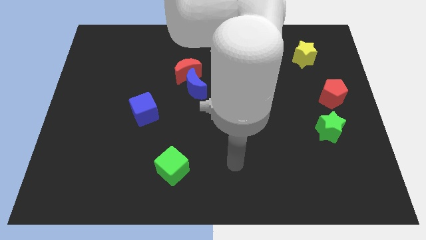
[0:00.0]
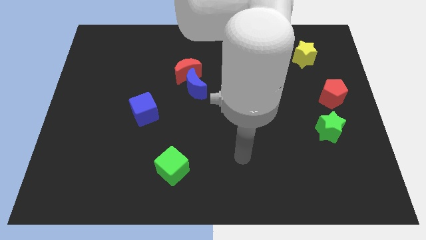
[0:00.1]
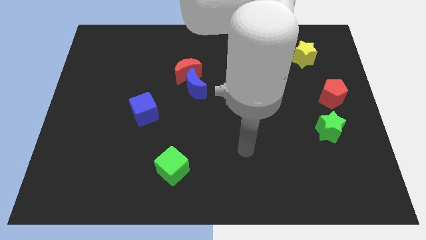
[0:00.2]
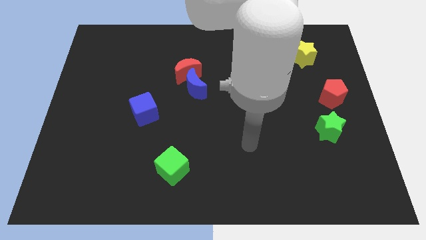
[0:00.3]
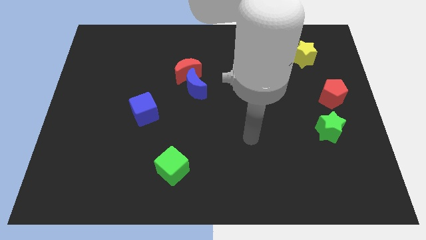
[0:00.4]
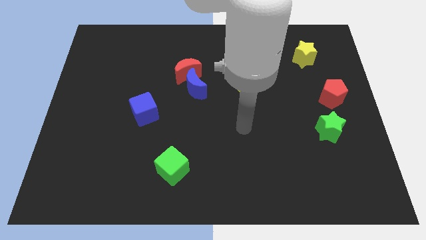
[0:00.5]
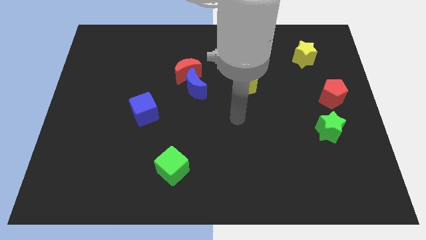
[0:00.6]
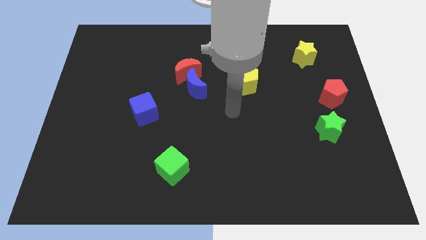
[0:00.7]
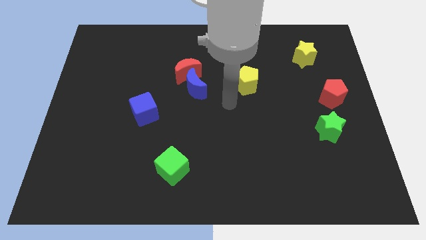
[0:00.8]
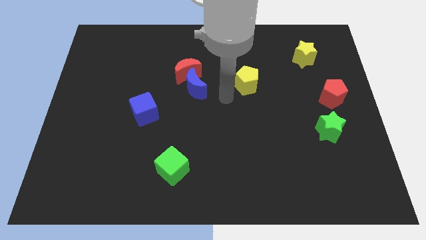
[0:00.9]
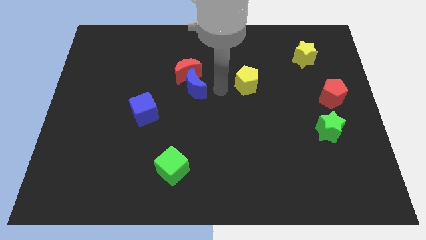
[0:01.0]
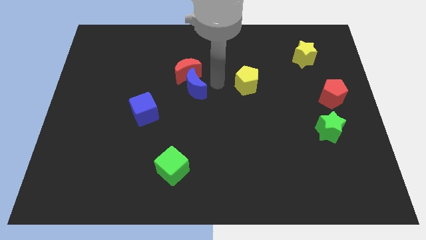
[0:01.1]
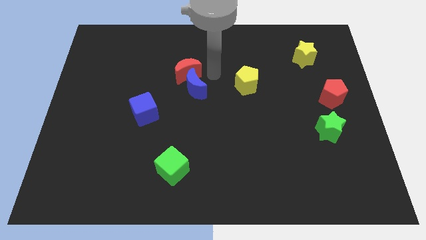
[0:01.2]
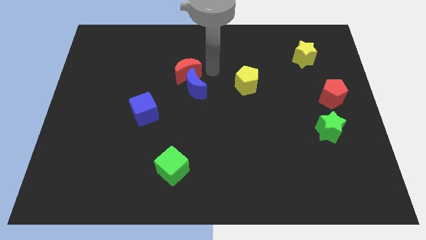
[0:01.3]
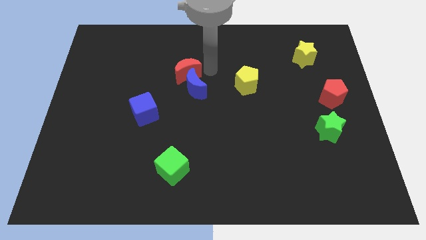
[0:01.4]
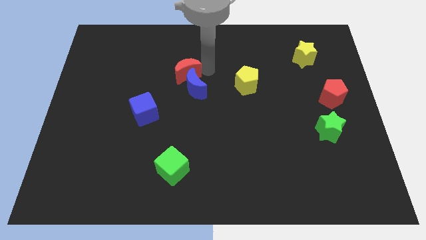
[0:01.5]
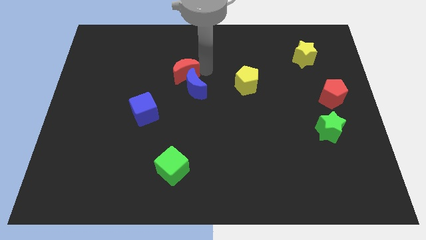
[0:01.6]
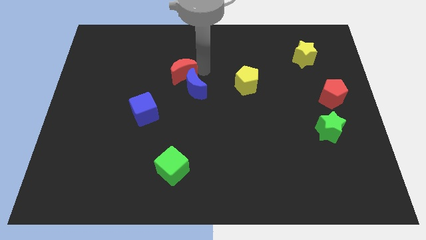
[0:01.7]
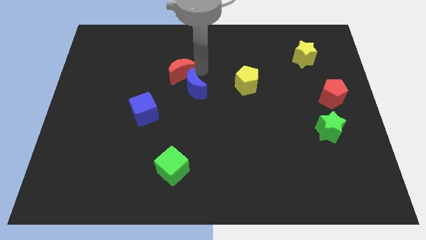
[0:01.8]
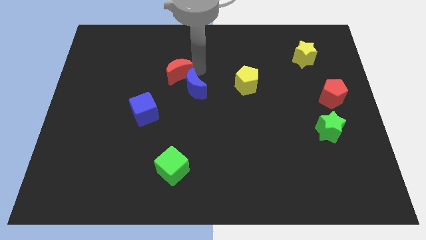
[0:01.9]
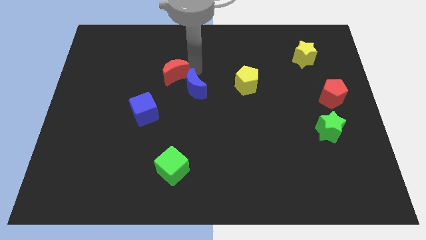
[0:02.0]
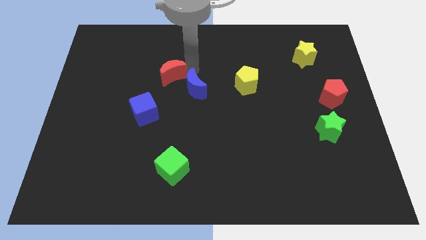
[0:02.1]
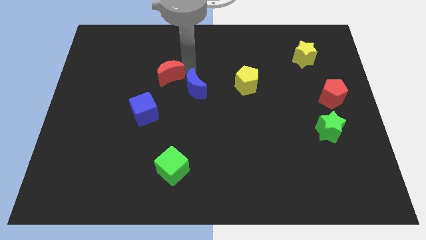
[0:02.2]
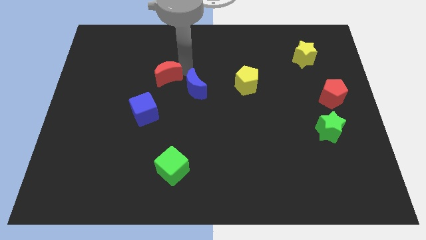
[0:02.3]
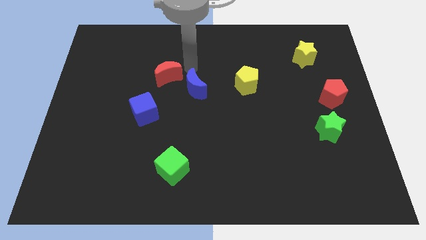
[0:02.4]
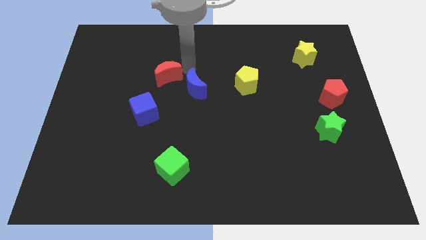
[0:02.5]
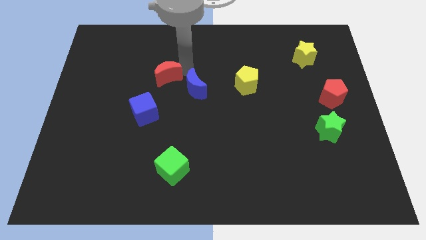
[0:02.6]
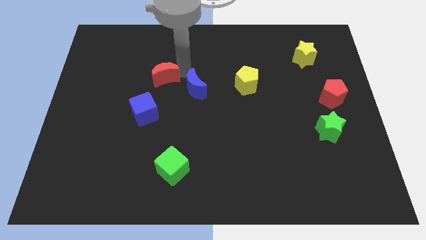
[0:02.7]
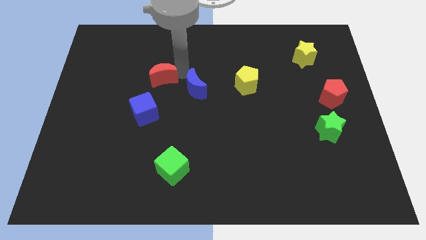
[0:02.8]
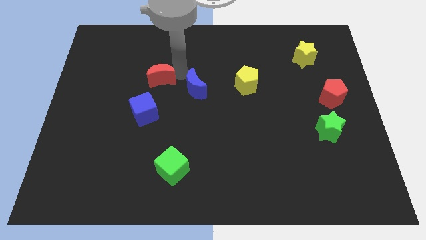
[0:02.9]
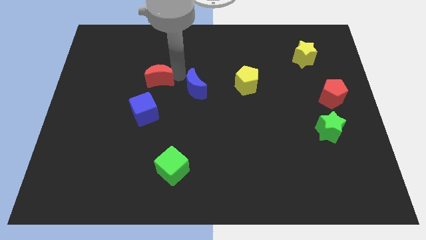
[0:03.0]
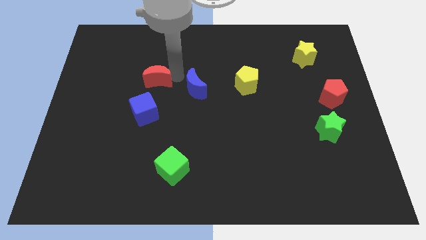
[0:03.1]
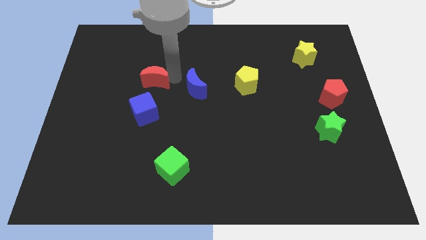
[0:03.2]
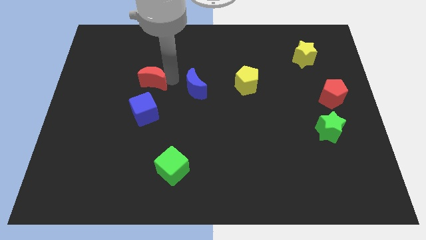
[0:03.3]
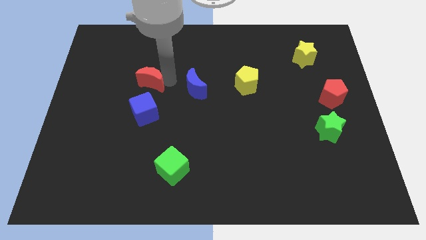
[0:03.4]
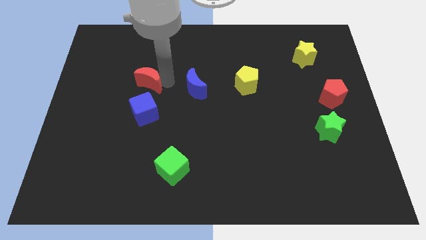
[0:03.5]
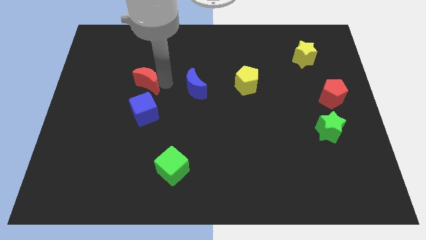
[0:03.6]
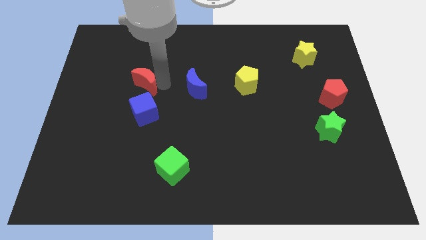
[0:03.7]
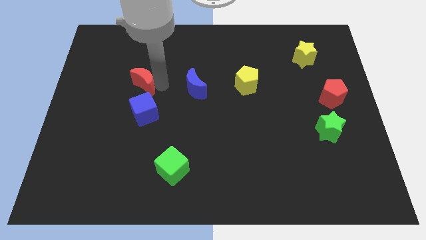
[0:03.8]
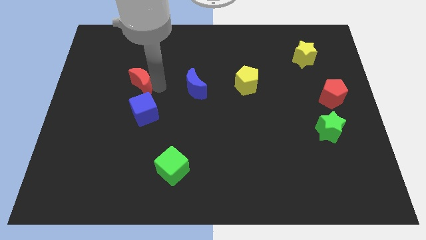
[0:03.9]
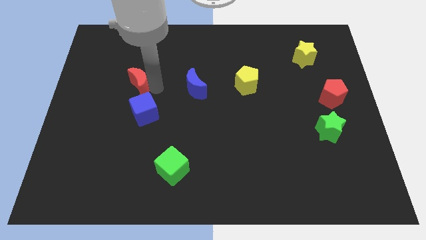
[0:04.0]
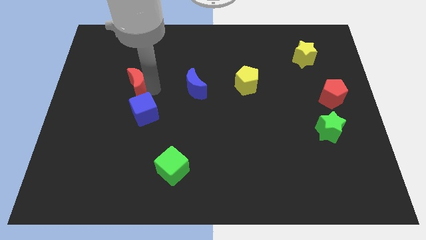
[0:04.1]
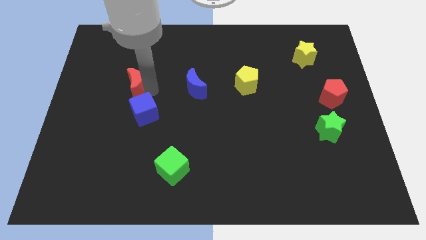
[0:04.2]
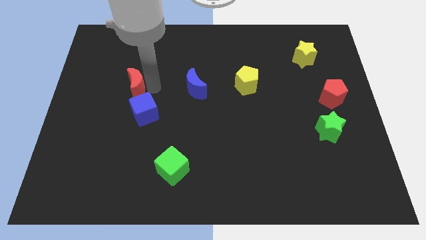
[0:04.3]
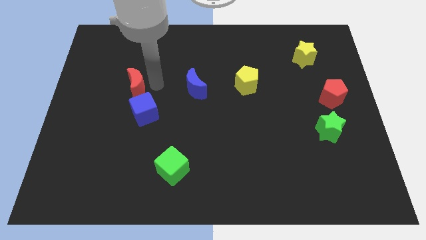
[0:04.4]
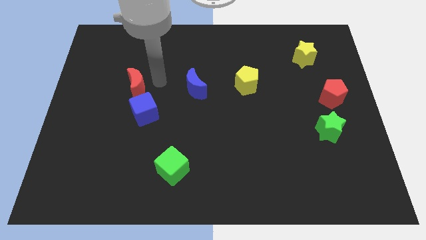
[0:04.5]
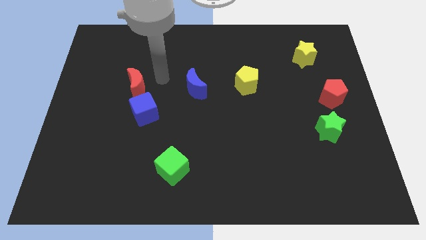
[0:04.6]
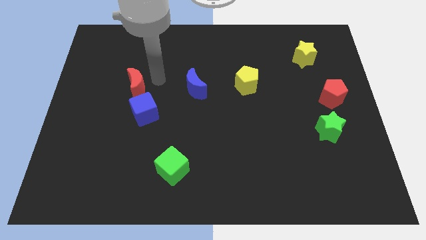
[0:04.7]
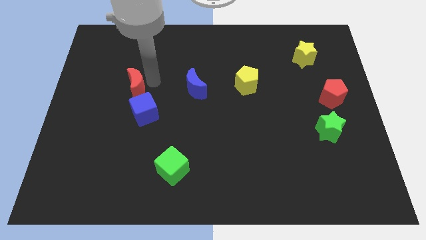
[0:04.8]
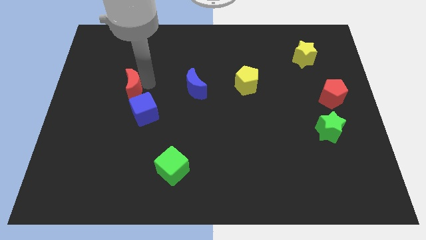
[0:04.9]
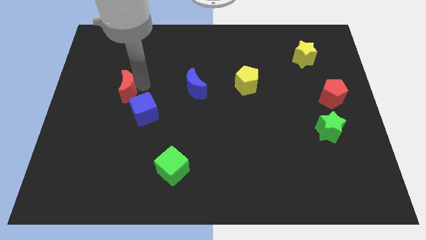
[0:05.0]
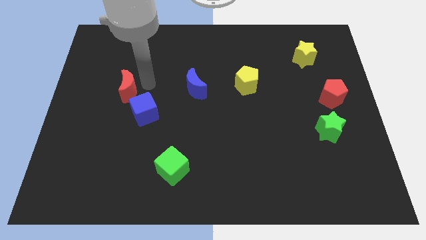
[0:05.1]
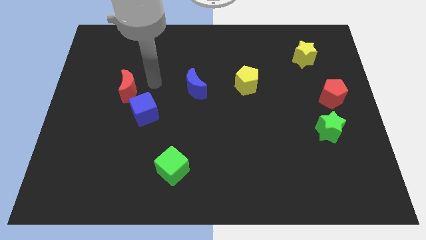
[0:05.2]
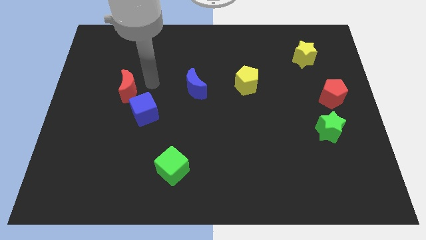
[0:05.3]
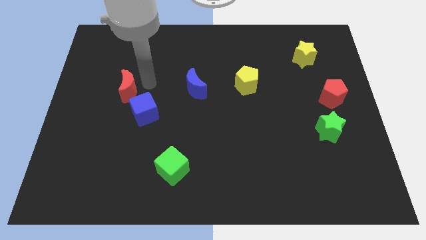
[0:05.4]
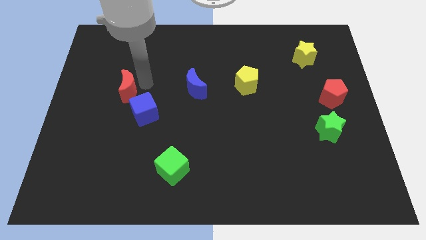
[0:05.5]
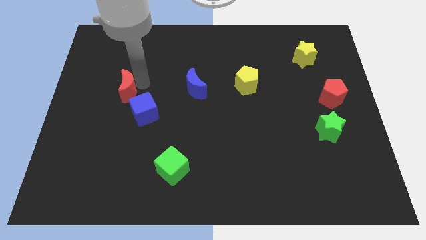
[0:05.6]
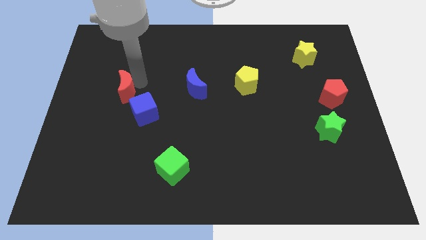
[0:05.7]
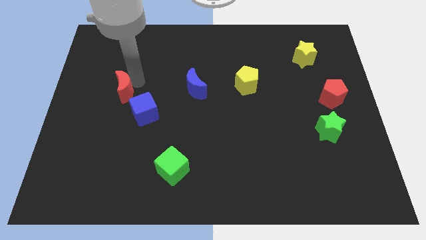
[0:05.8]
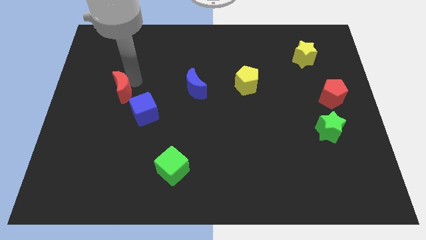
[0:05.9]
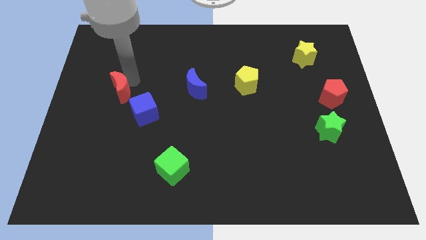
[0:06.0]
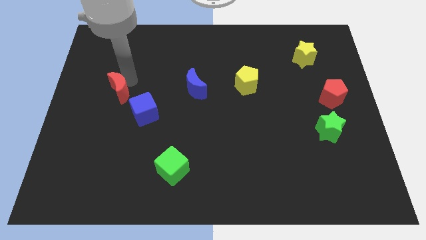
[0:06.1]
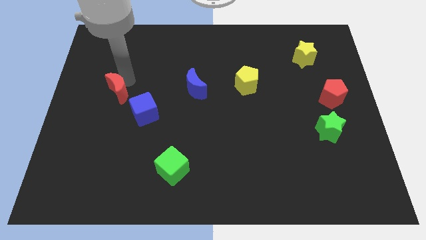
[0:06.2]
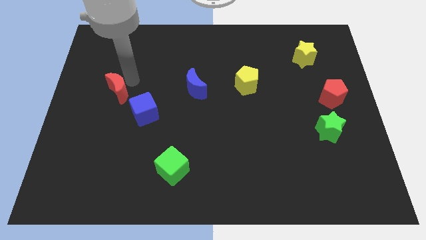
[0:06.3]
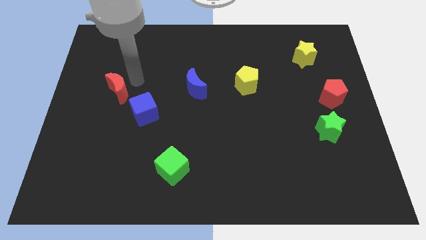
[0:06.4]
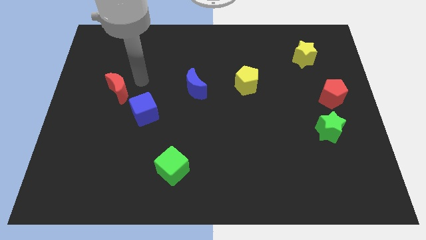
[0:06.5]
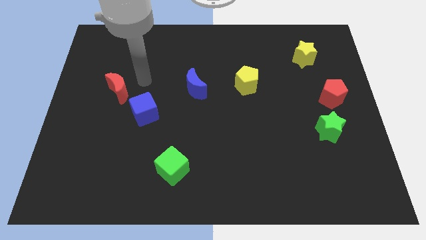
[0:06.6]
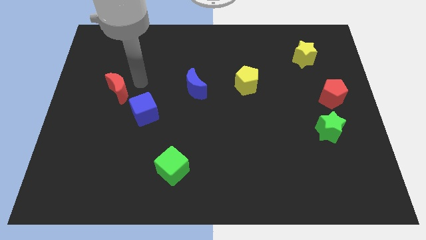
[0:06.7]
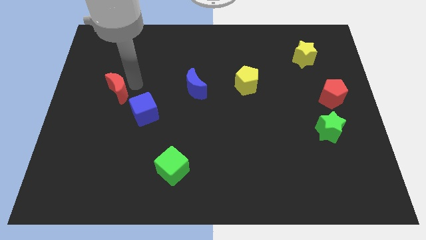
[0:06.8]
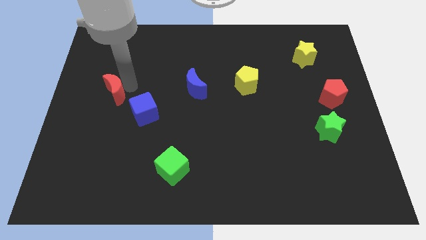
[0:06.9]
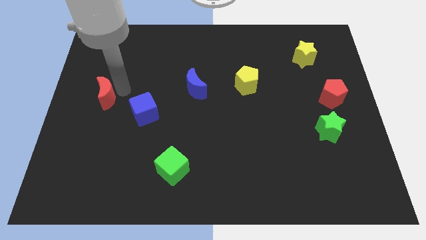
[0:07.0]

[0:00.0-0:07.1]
put the red moon to the left side
